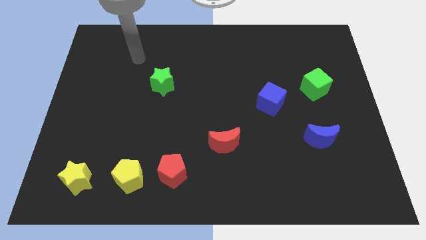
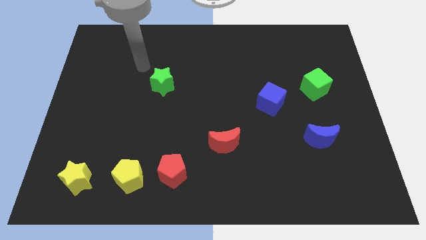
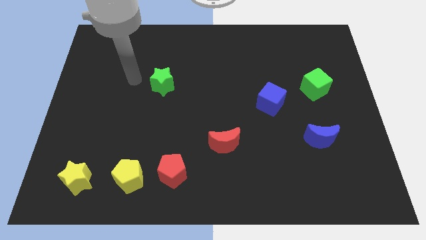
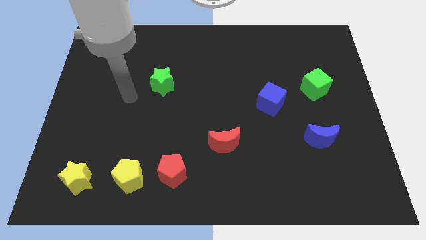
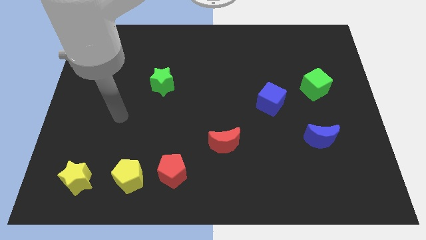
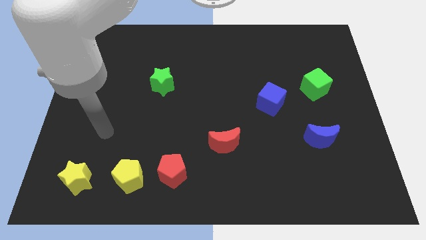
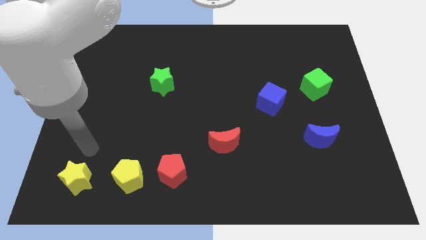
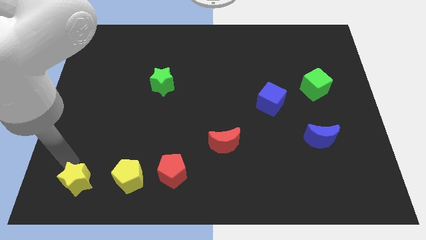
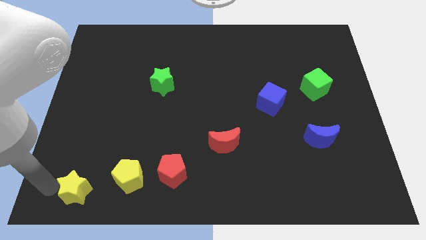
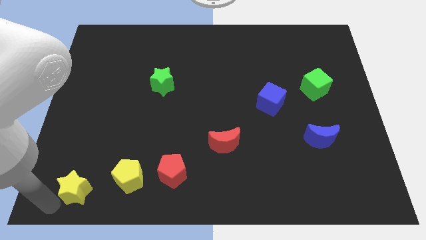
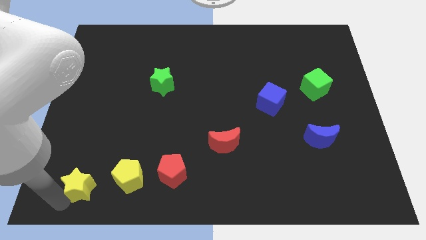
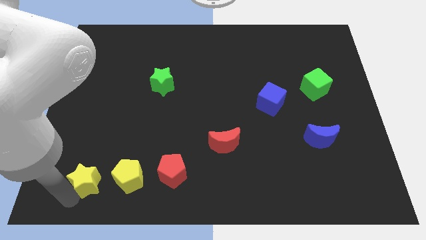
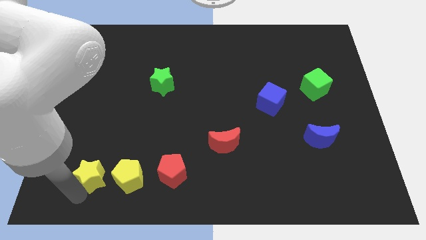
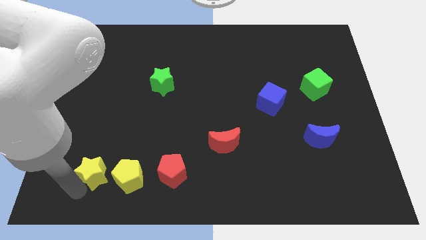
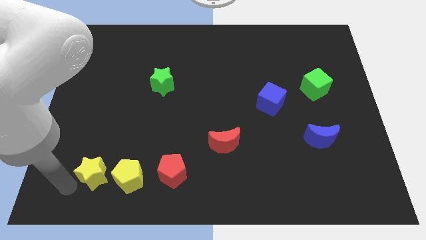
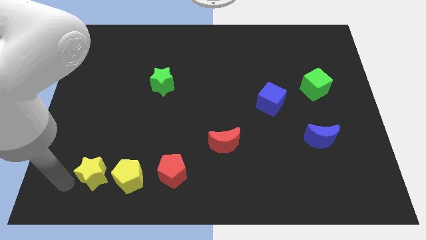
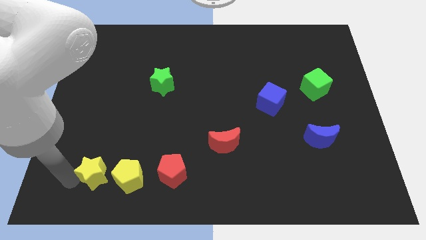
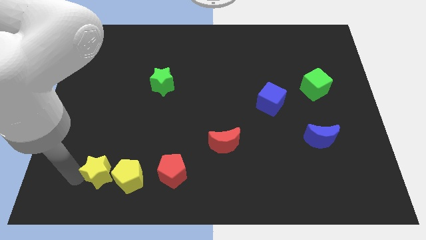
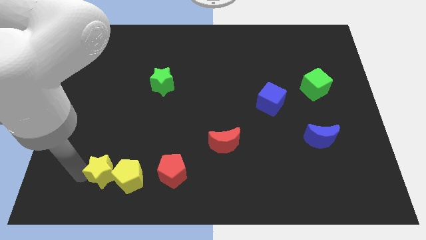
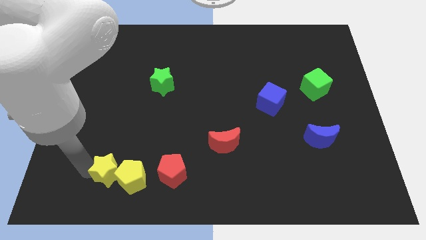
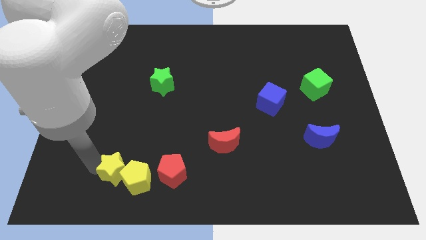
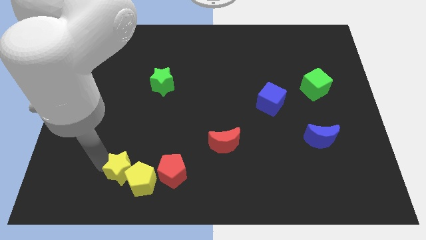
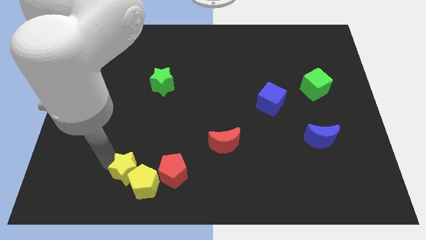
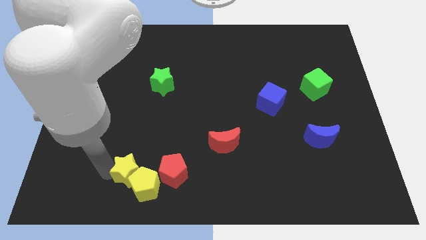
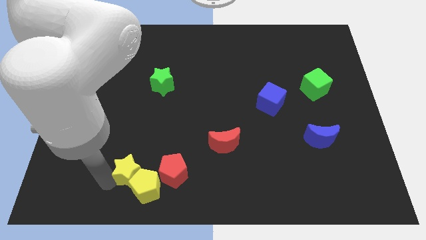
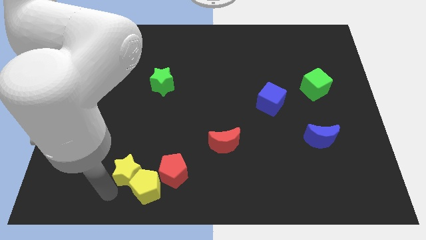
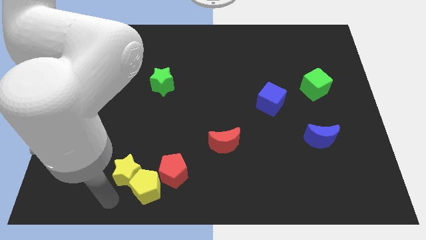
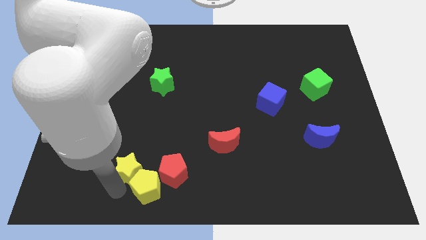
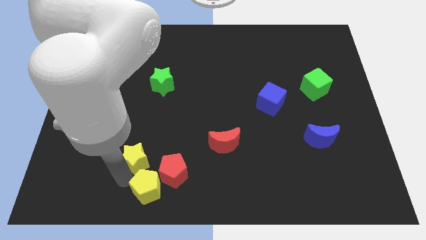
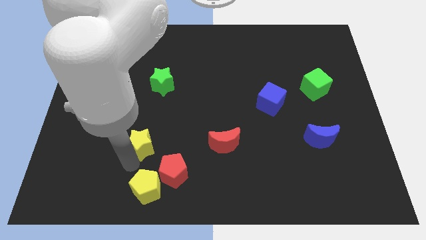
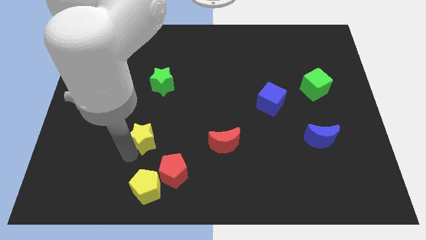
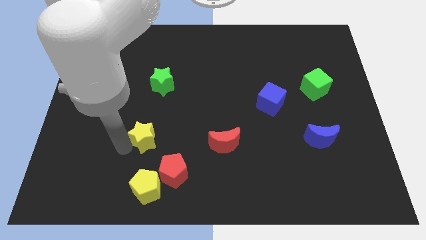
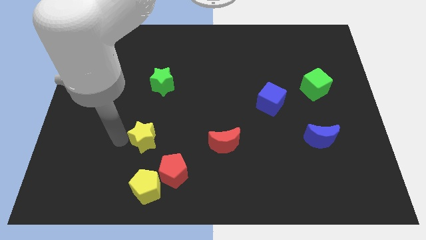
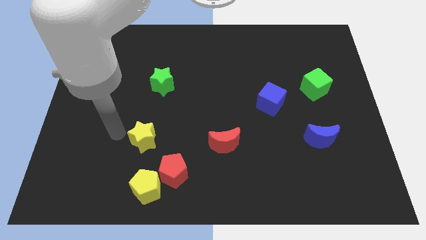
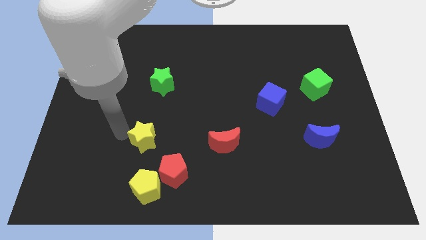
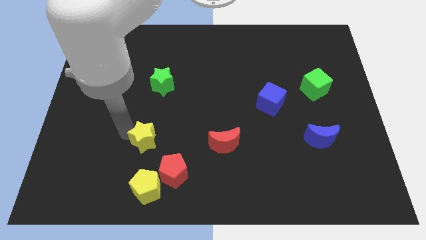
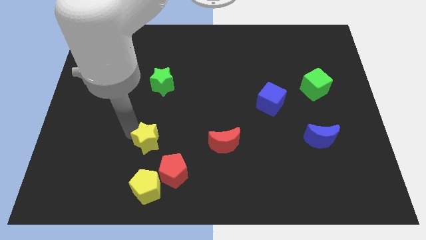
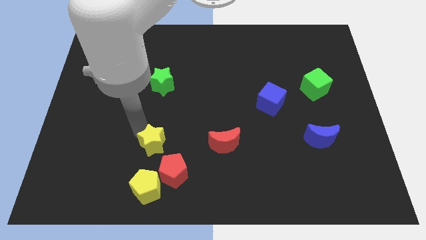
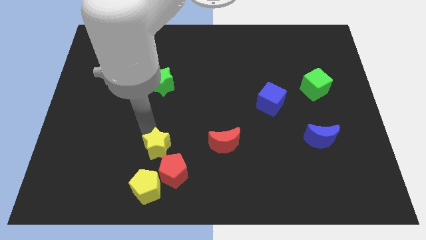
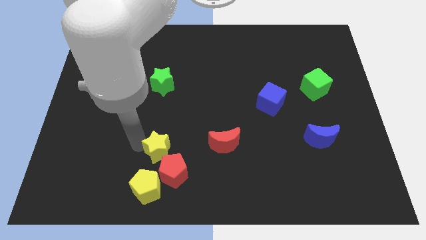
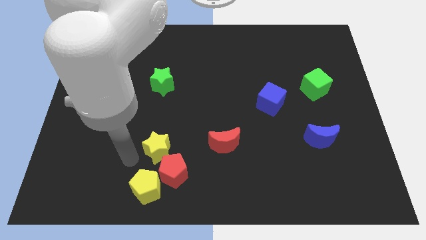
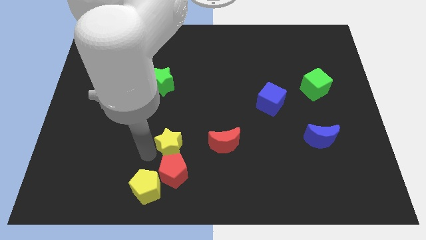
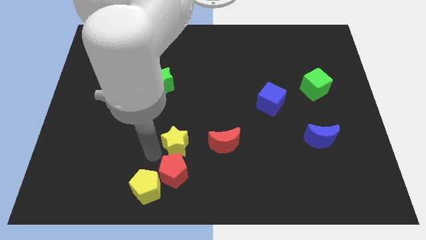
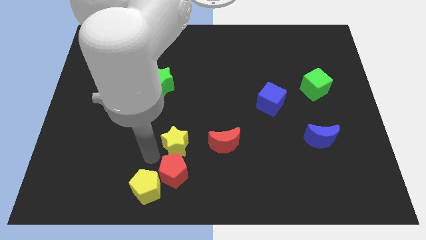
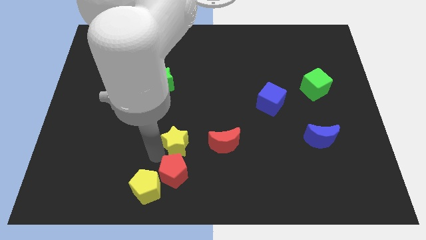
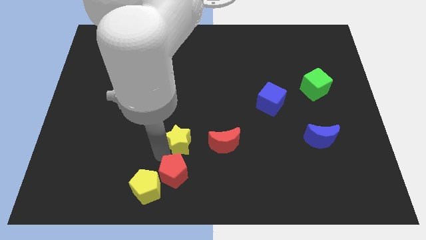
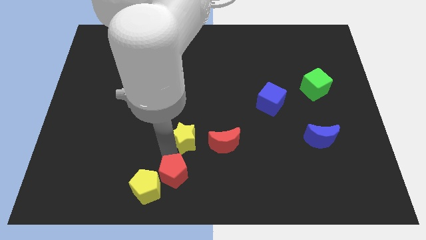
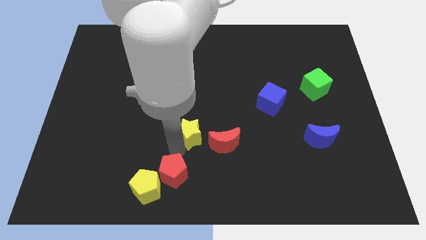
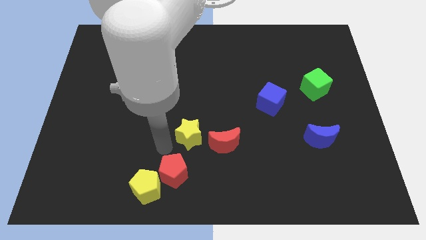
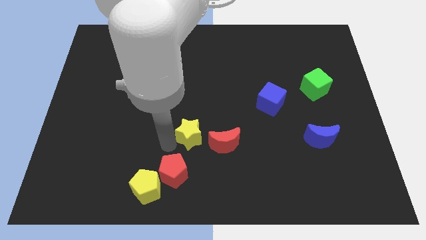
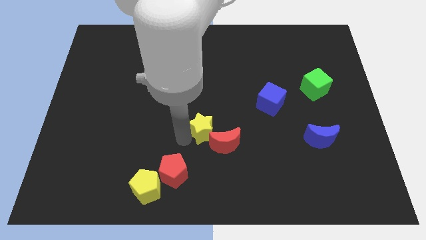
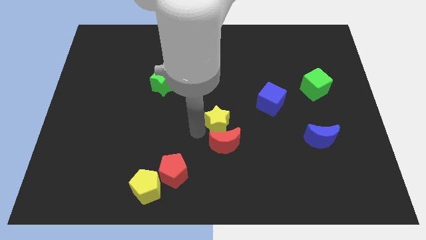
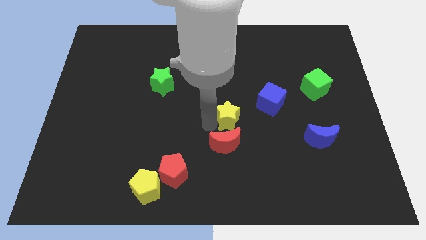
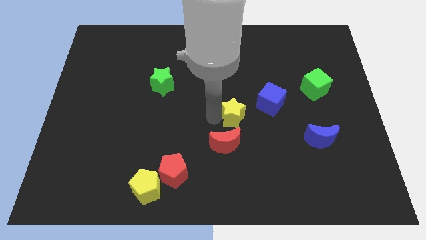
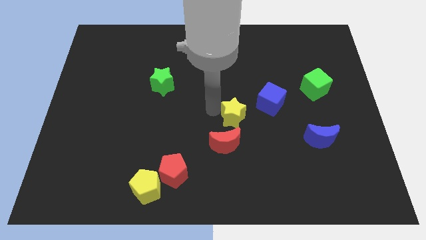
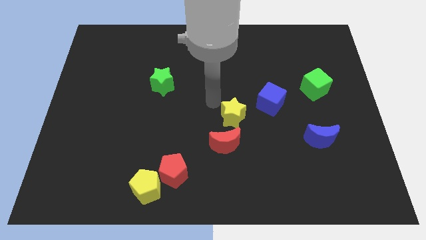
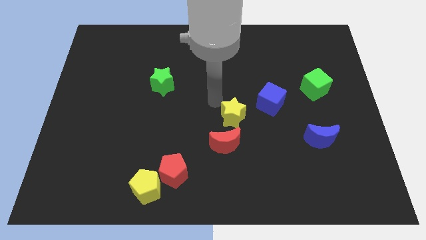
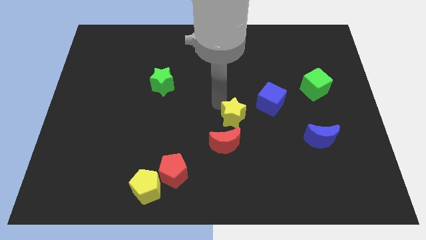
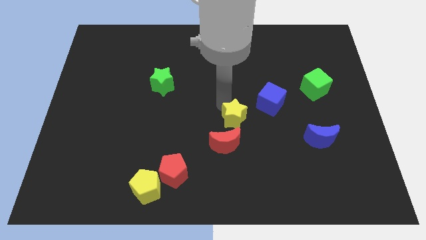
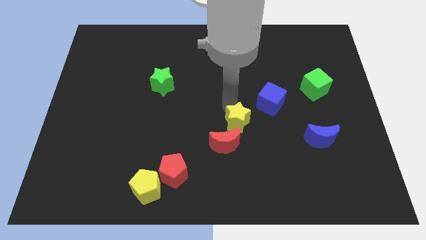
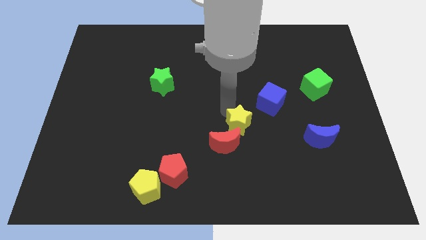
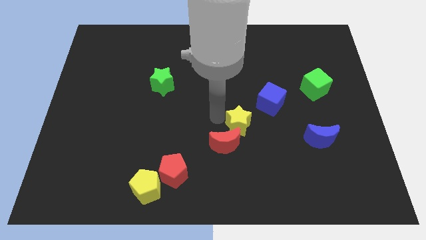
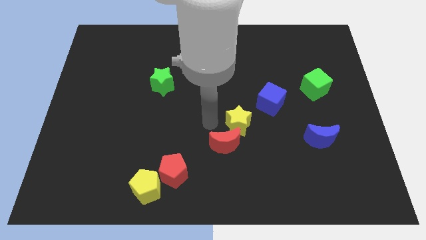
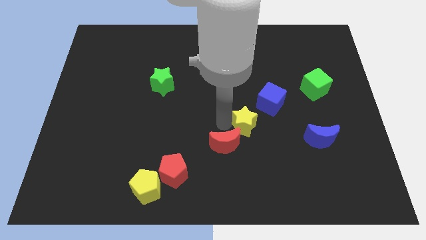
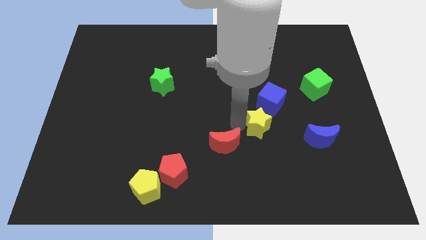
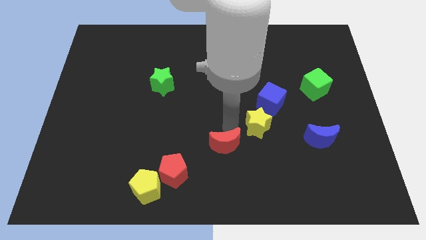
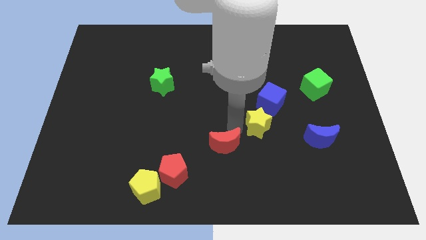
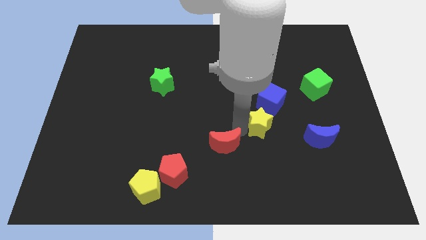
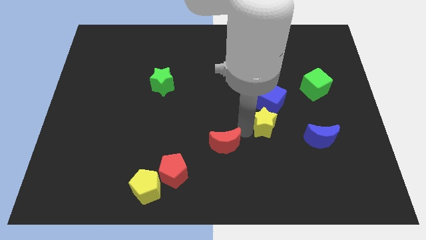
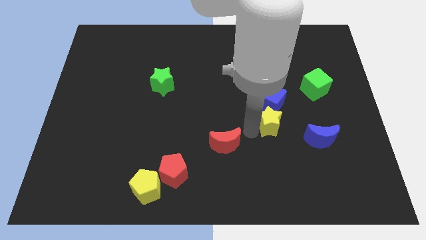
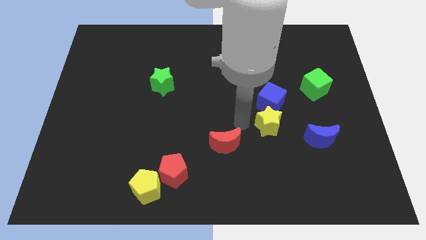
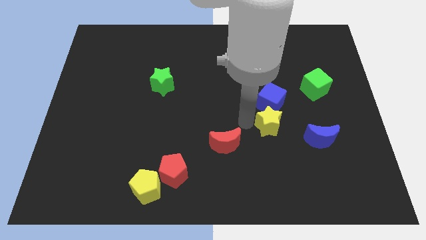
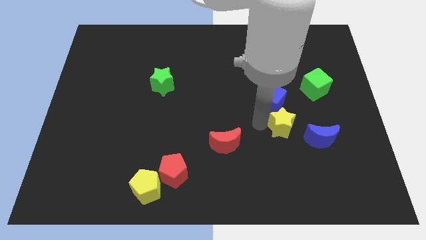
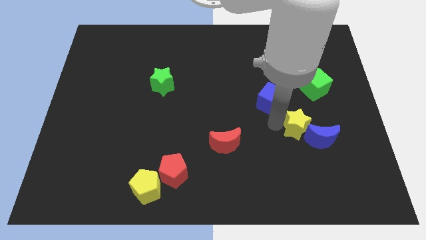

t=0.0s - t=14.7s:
slide the yellow star close to the blue moon

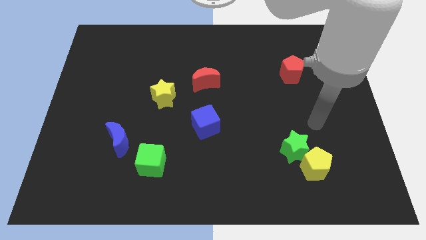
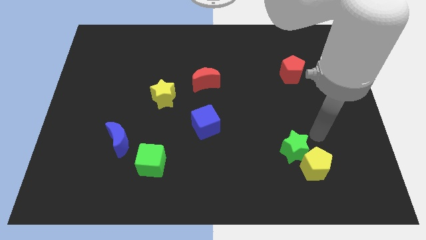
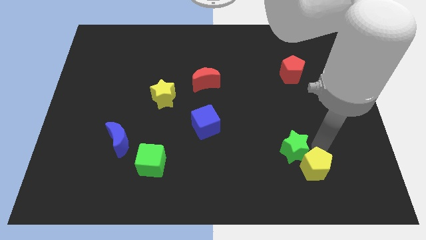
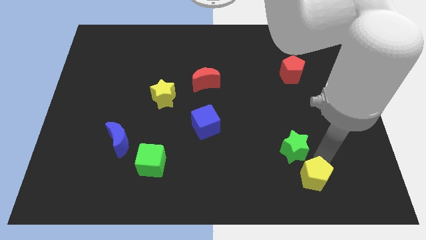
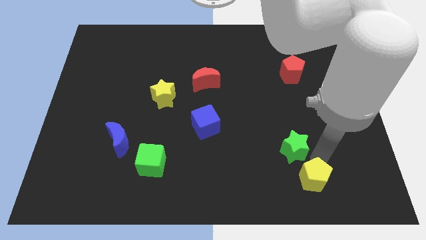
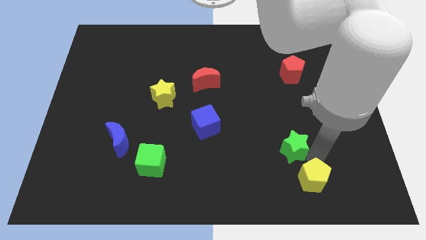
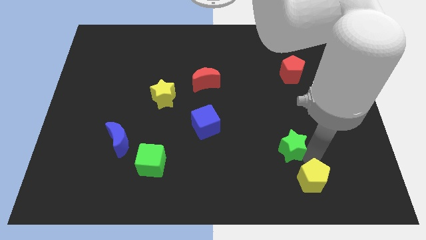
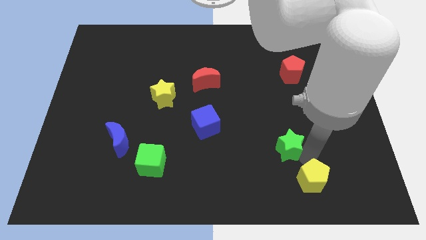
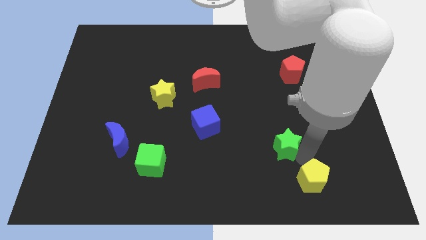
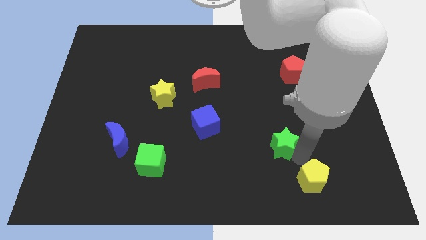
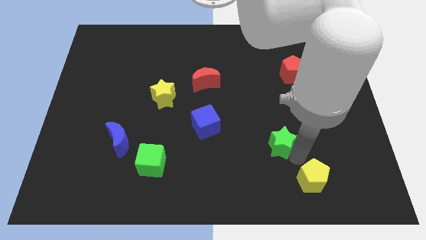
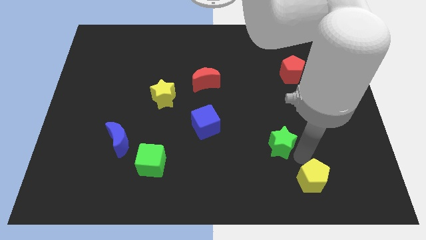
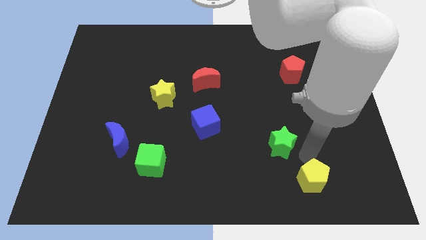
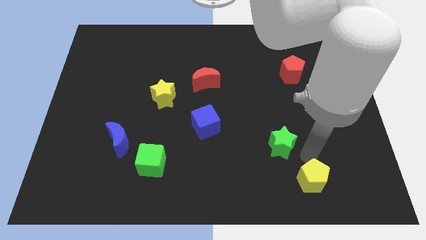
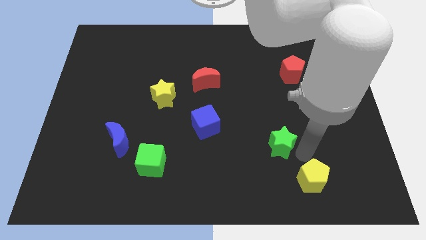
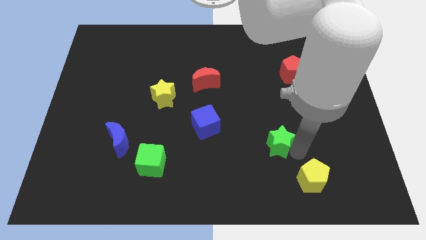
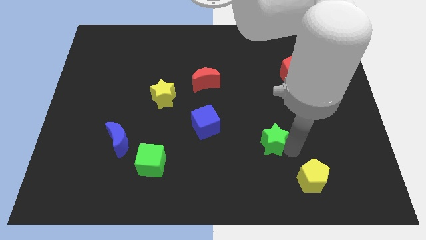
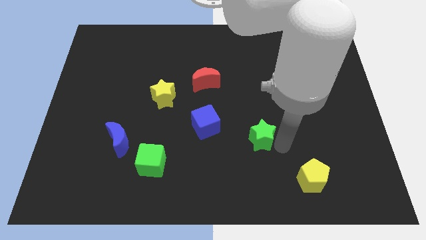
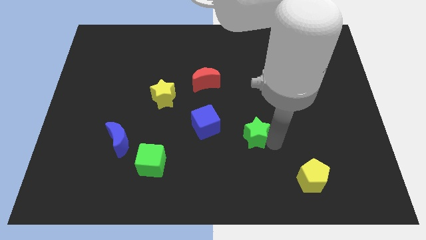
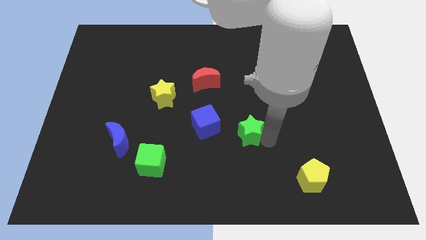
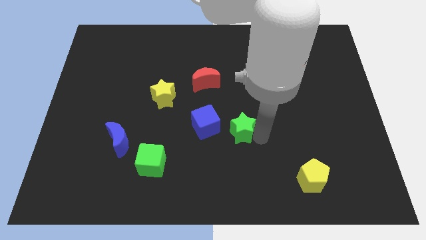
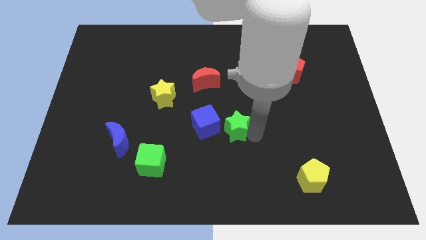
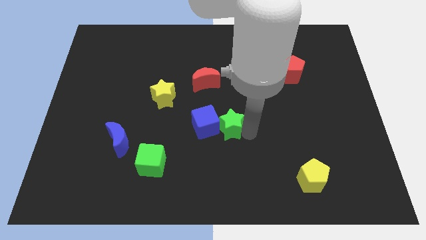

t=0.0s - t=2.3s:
slide the green star to the blue cube
